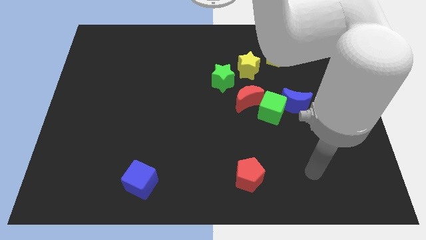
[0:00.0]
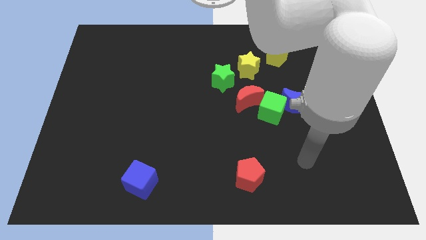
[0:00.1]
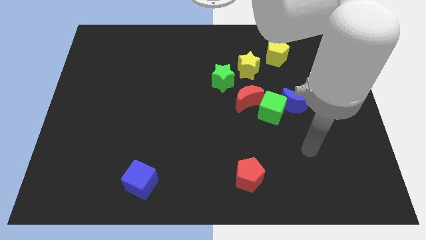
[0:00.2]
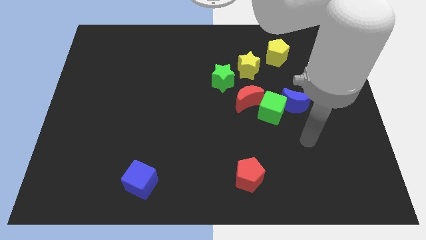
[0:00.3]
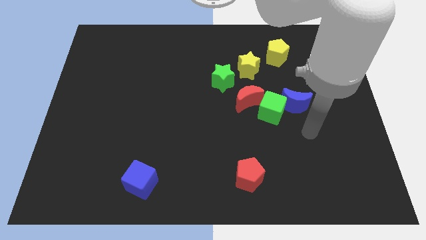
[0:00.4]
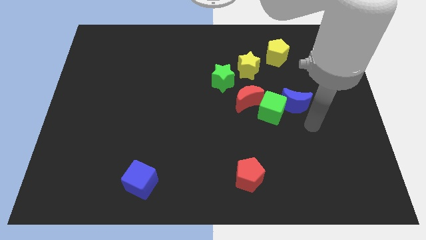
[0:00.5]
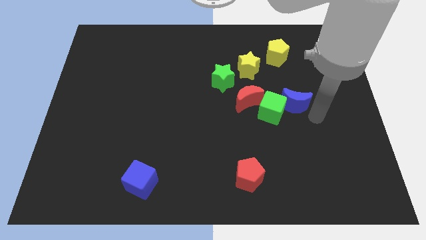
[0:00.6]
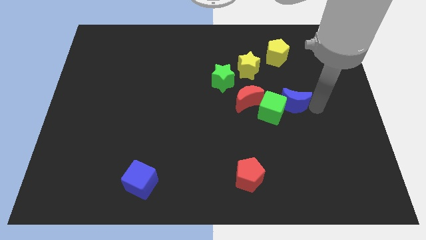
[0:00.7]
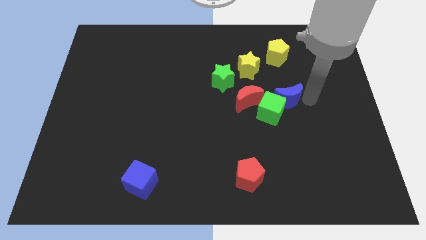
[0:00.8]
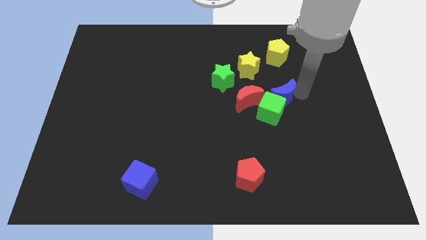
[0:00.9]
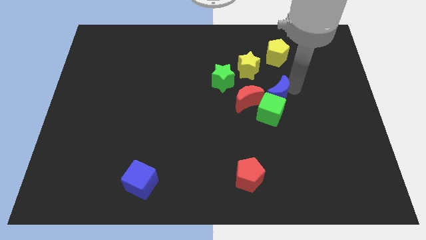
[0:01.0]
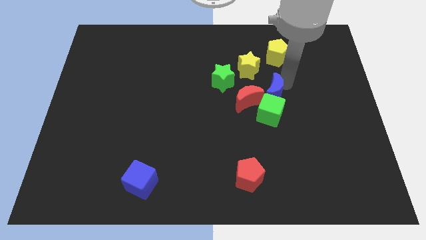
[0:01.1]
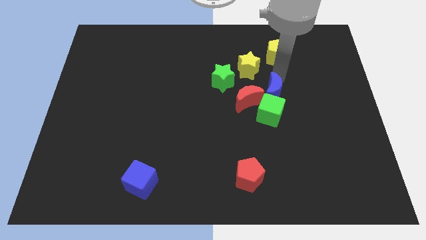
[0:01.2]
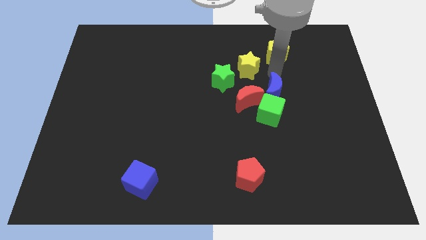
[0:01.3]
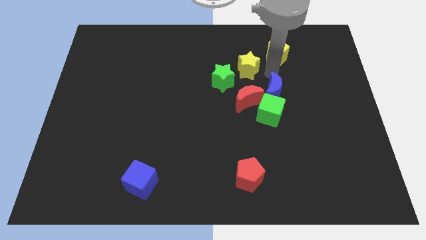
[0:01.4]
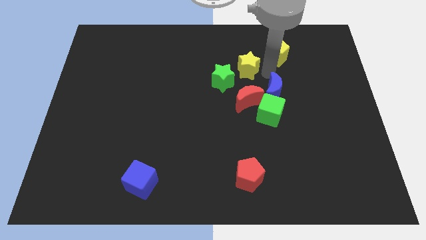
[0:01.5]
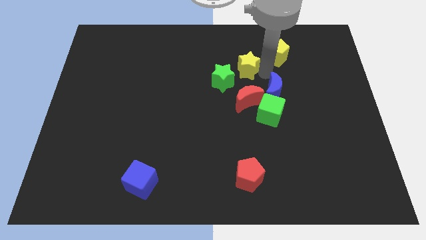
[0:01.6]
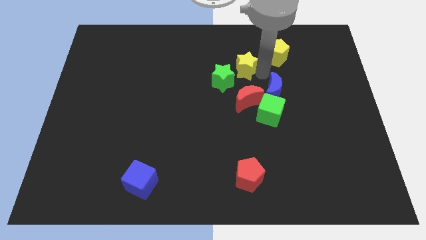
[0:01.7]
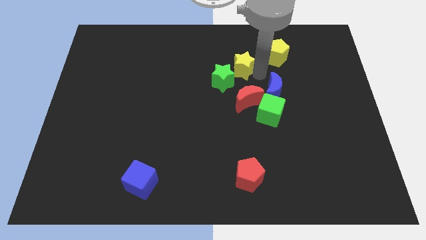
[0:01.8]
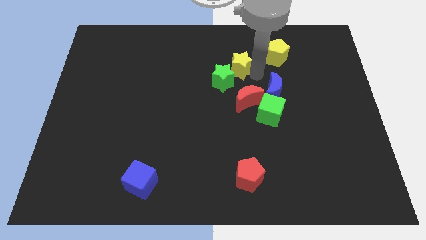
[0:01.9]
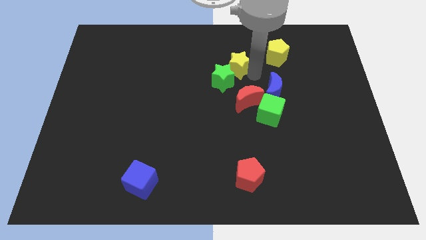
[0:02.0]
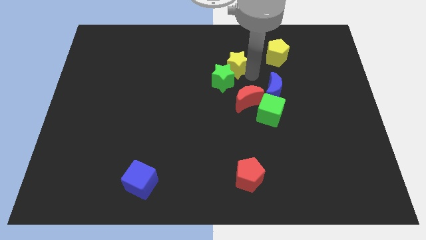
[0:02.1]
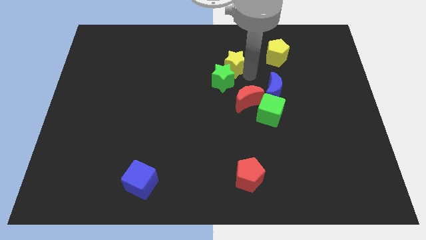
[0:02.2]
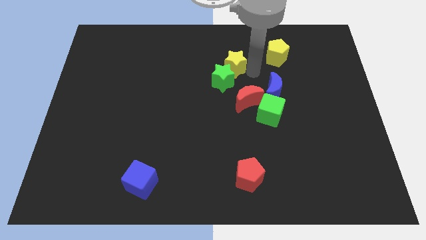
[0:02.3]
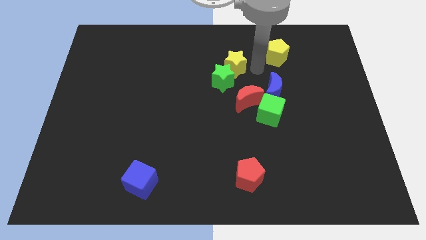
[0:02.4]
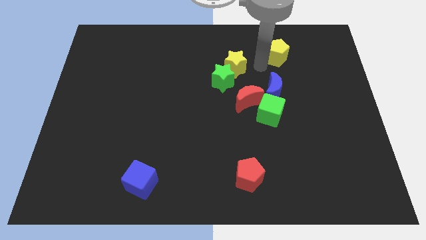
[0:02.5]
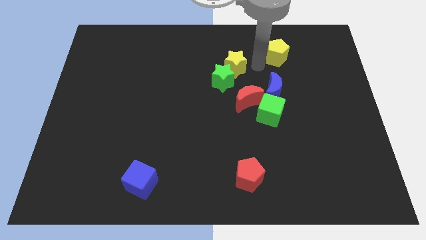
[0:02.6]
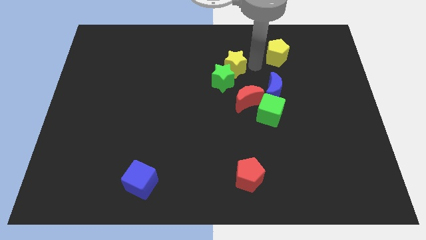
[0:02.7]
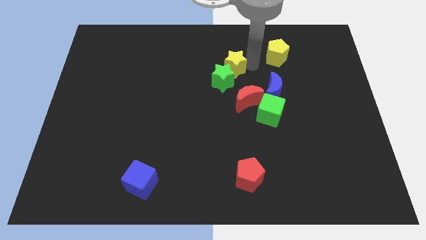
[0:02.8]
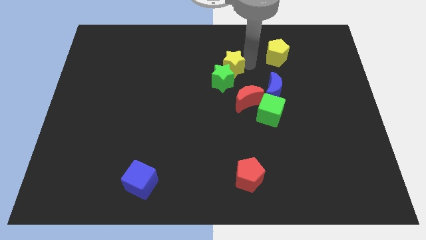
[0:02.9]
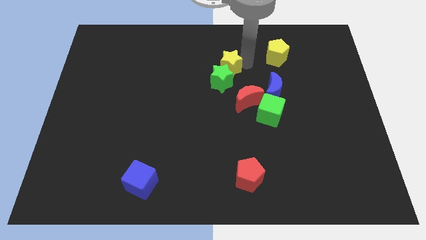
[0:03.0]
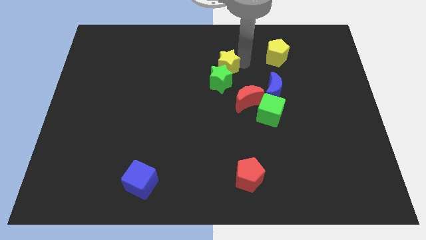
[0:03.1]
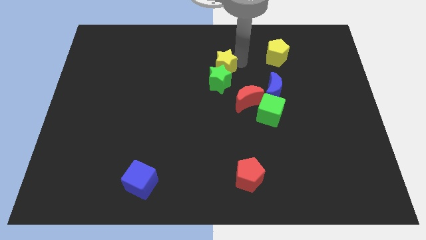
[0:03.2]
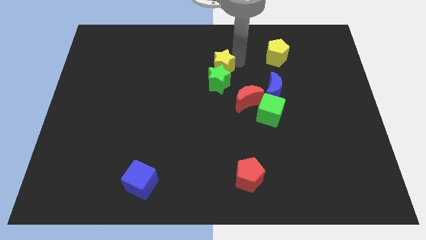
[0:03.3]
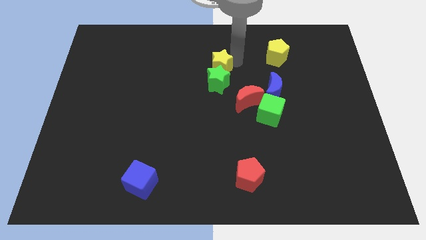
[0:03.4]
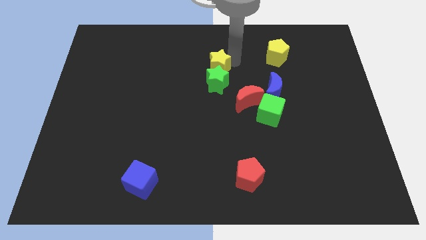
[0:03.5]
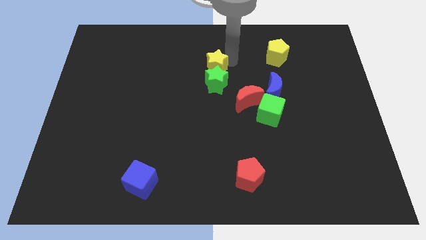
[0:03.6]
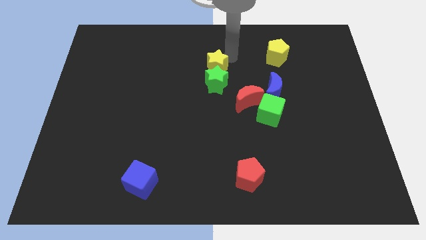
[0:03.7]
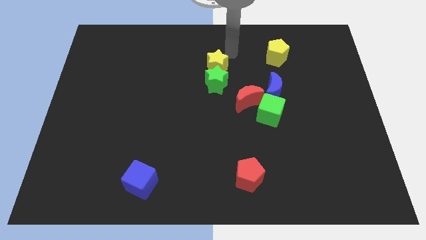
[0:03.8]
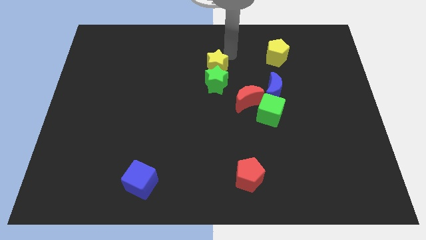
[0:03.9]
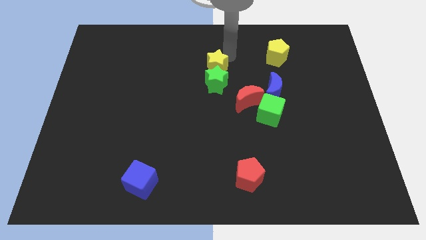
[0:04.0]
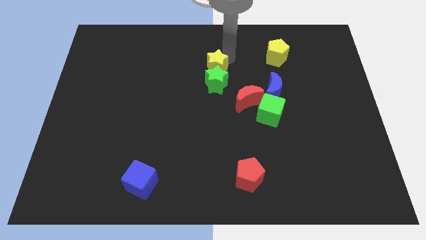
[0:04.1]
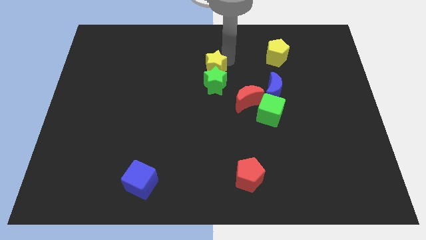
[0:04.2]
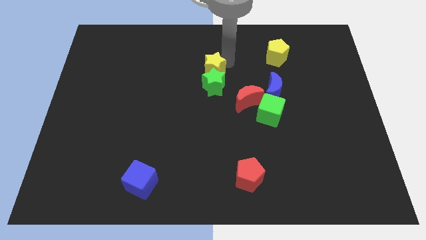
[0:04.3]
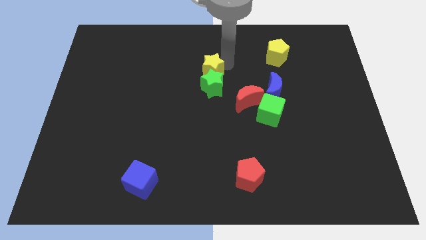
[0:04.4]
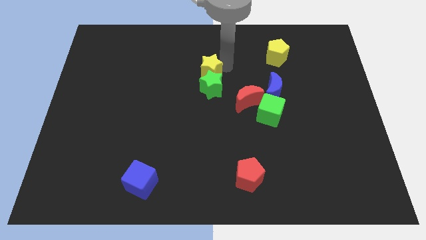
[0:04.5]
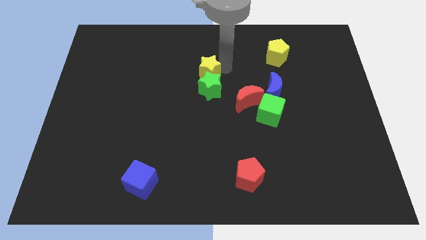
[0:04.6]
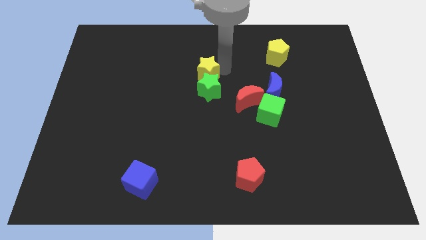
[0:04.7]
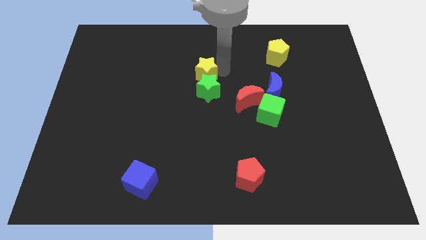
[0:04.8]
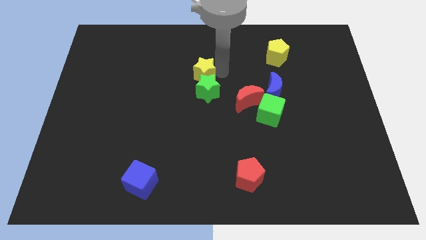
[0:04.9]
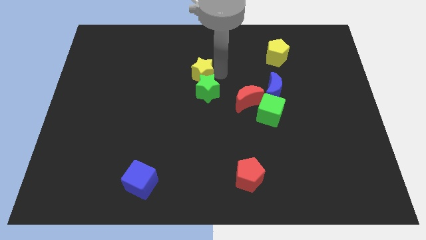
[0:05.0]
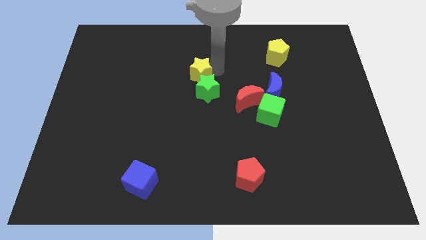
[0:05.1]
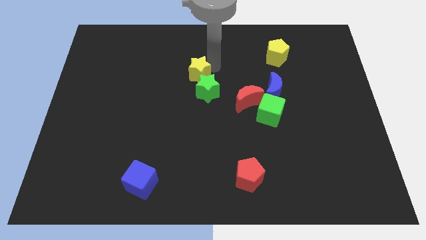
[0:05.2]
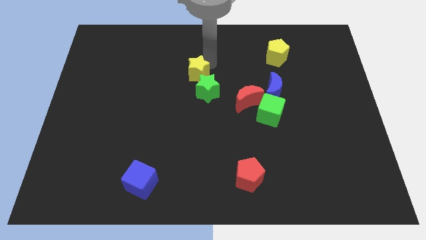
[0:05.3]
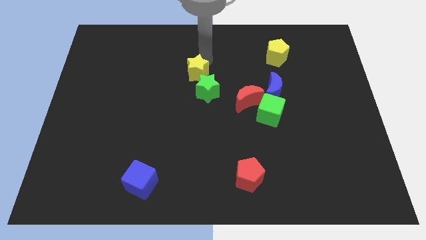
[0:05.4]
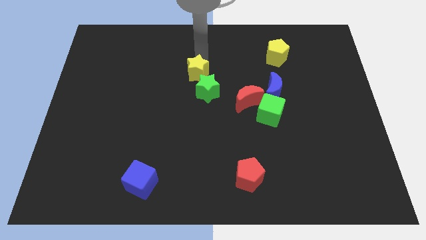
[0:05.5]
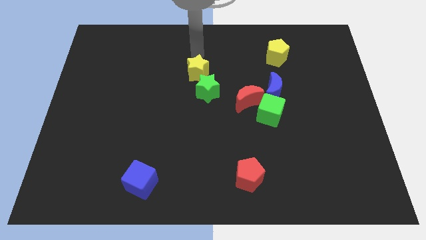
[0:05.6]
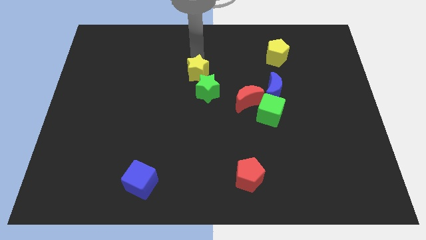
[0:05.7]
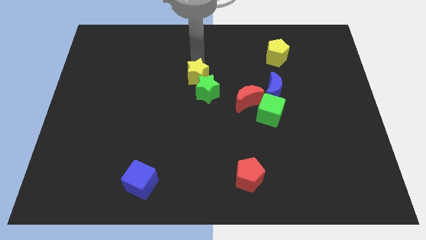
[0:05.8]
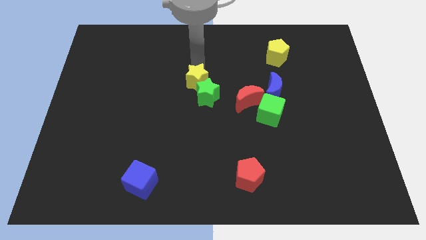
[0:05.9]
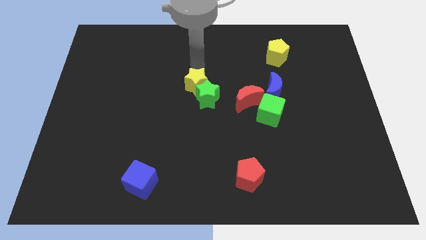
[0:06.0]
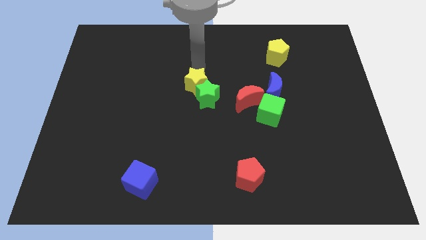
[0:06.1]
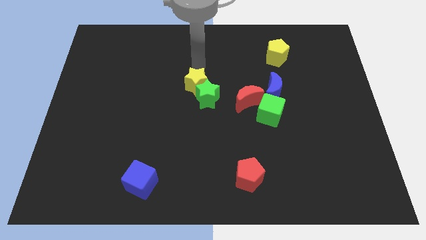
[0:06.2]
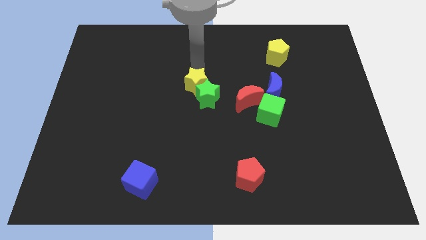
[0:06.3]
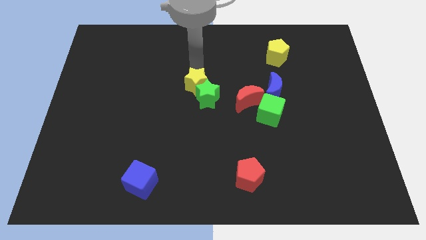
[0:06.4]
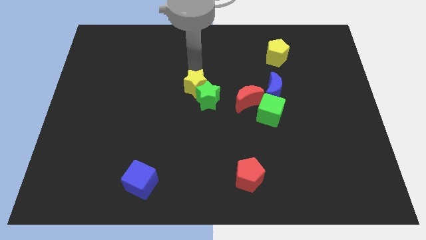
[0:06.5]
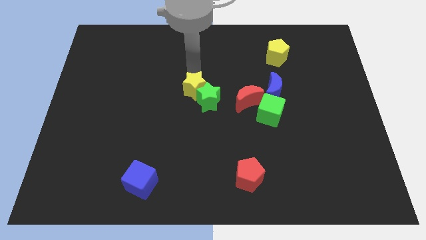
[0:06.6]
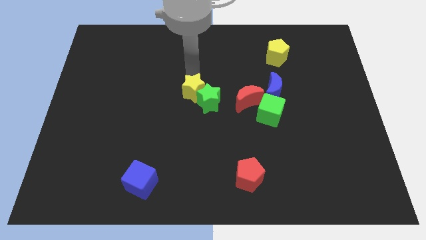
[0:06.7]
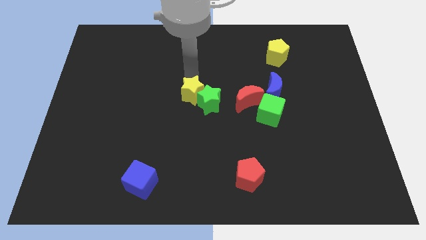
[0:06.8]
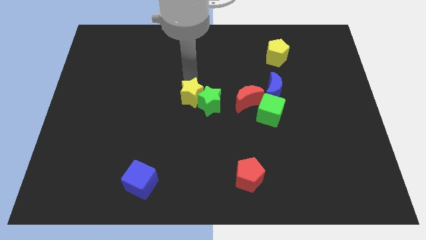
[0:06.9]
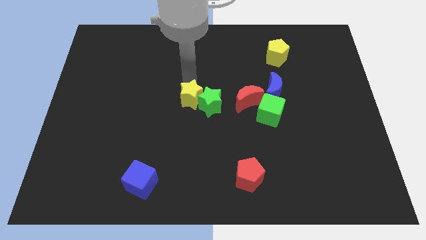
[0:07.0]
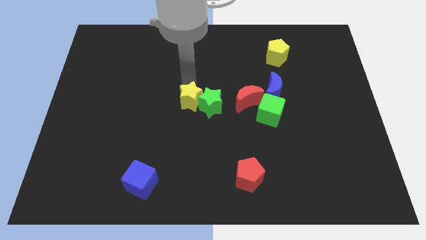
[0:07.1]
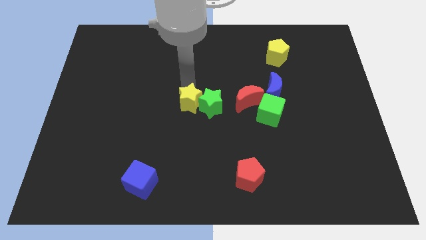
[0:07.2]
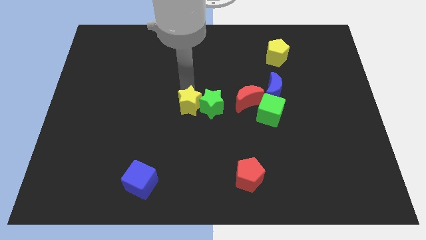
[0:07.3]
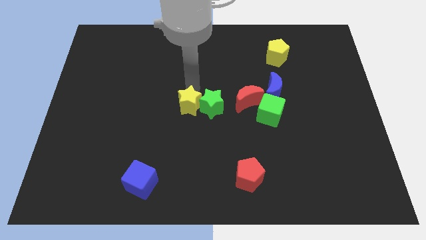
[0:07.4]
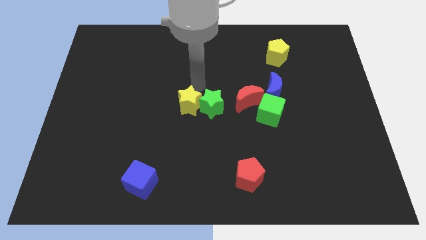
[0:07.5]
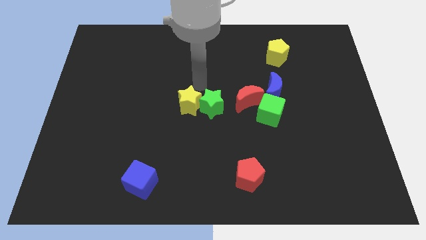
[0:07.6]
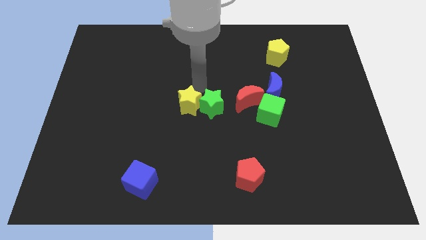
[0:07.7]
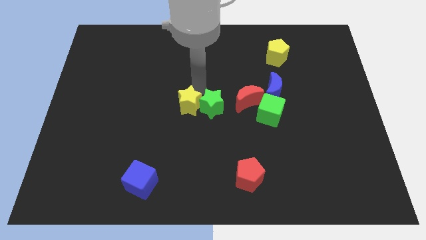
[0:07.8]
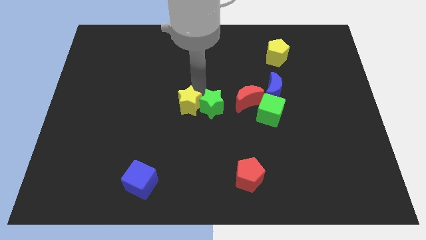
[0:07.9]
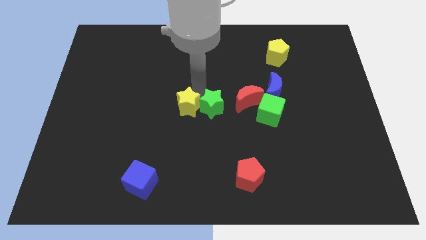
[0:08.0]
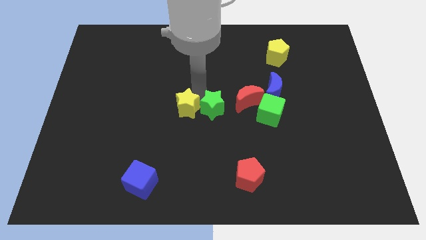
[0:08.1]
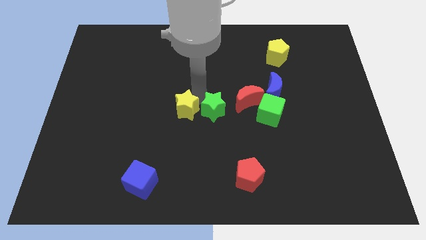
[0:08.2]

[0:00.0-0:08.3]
slide the yellow star downwards and to the left diagonally
